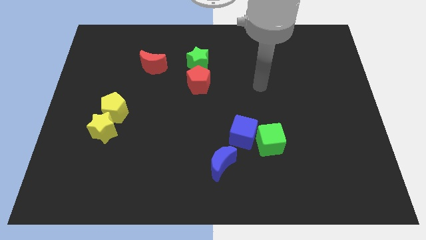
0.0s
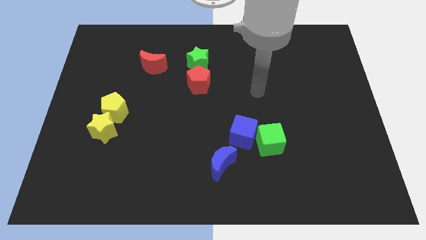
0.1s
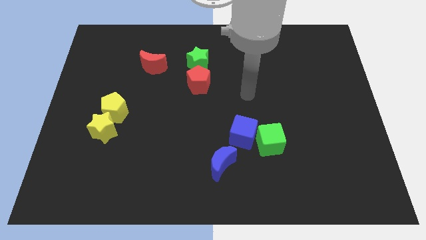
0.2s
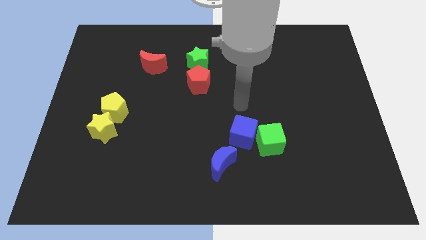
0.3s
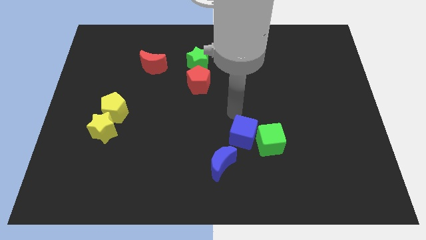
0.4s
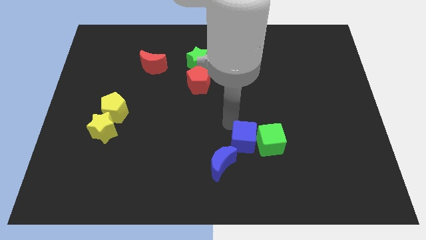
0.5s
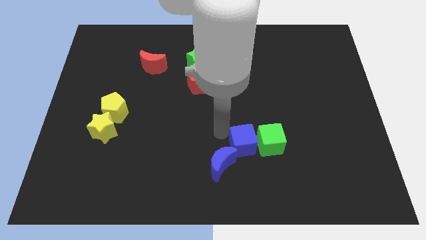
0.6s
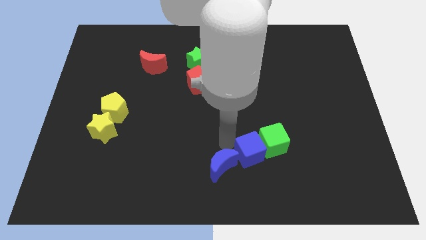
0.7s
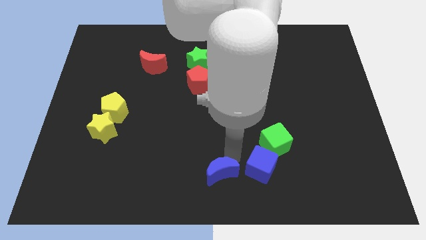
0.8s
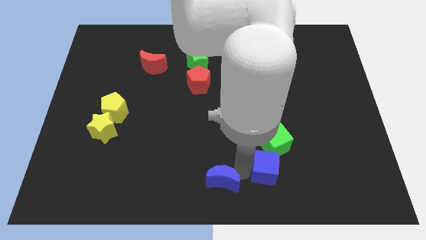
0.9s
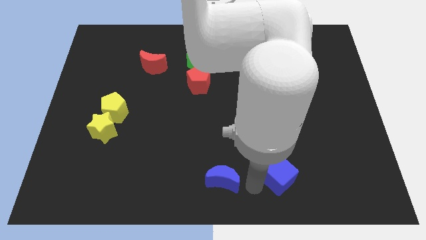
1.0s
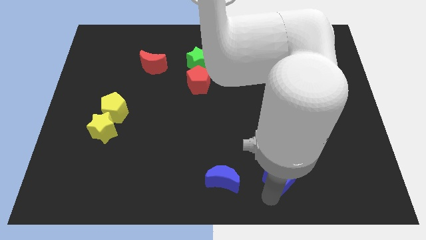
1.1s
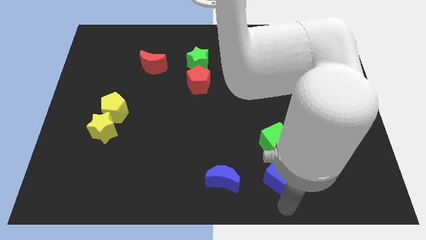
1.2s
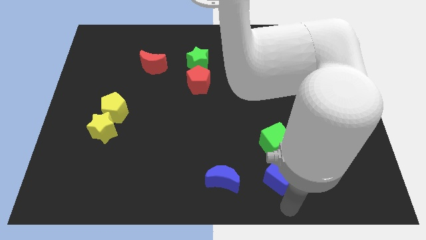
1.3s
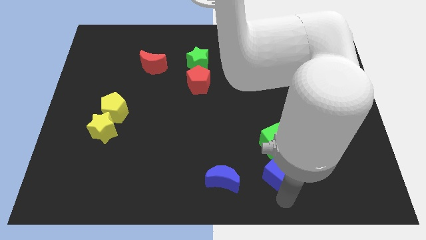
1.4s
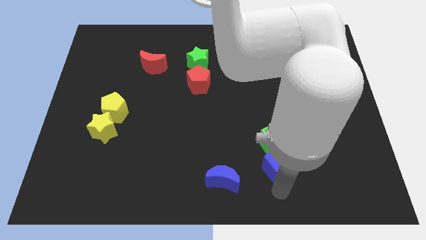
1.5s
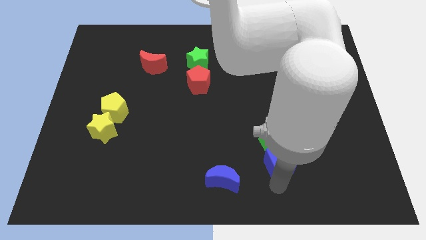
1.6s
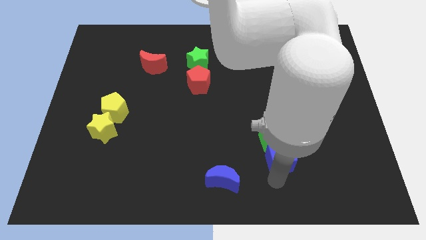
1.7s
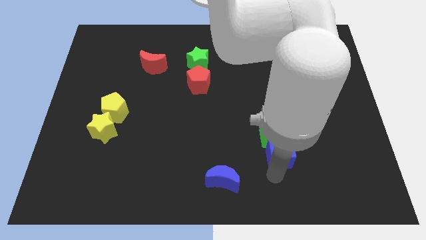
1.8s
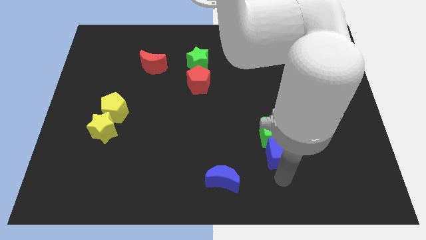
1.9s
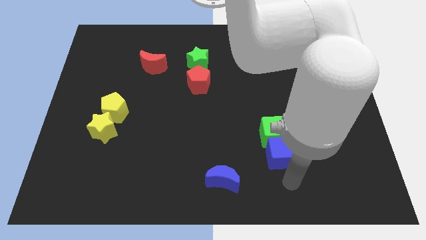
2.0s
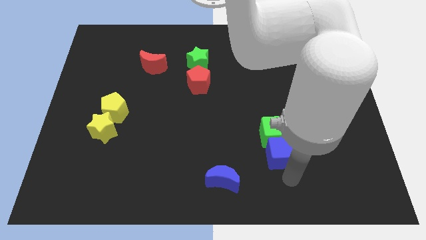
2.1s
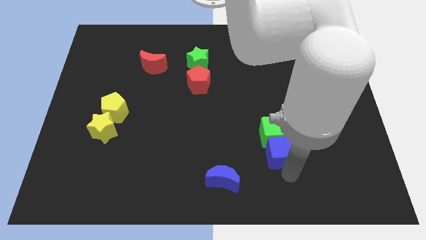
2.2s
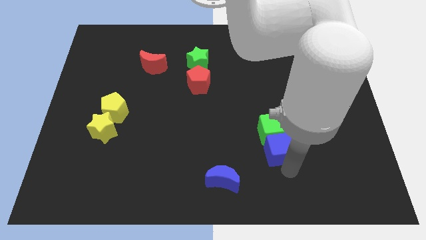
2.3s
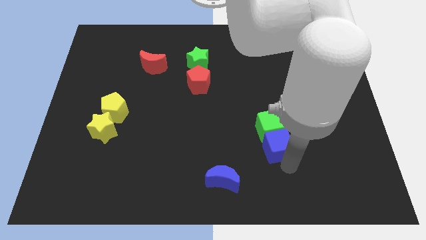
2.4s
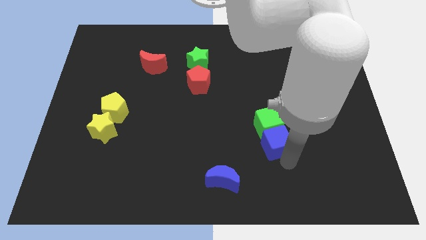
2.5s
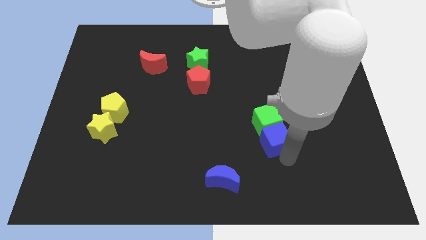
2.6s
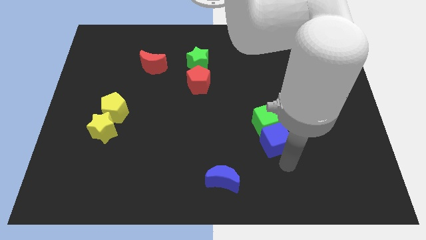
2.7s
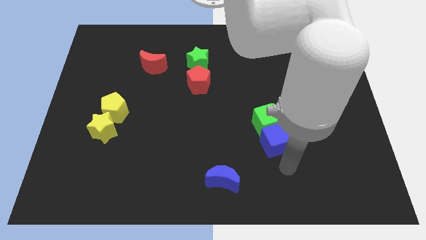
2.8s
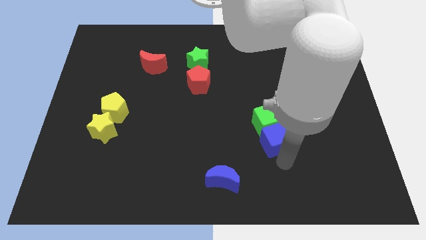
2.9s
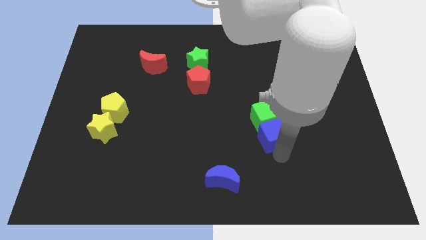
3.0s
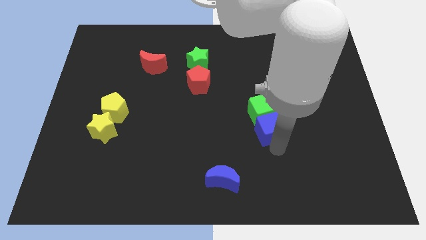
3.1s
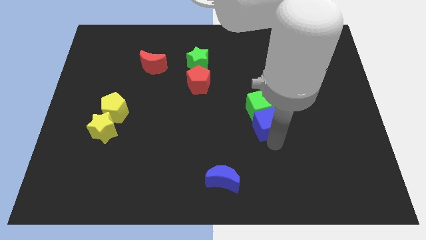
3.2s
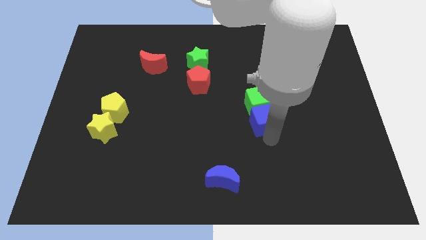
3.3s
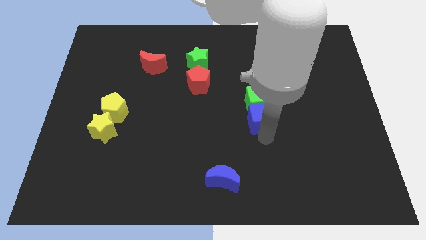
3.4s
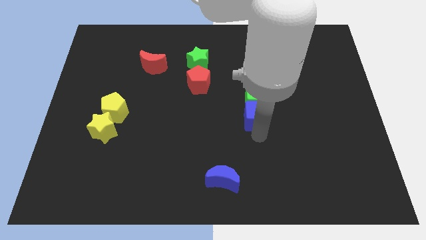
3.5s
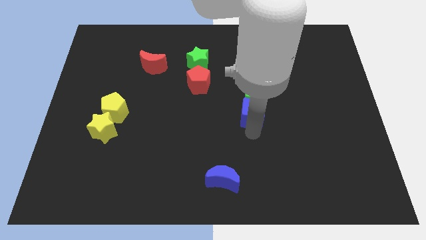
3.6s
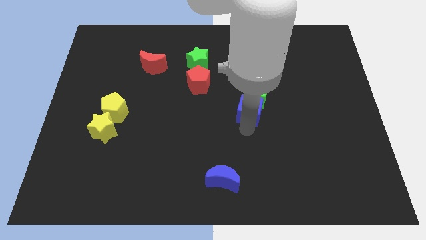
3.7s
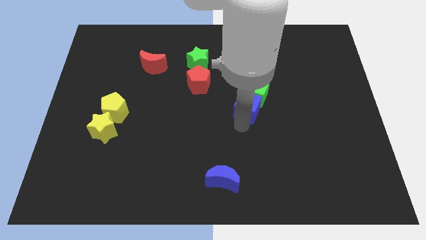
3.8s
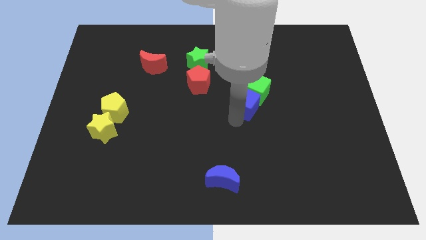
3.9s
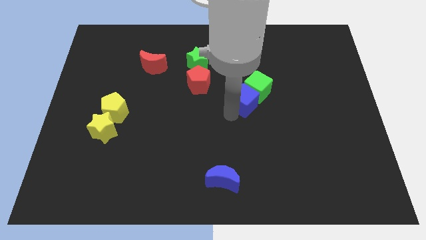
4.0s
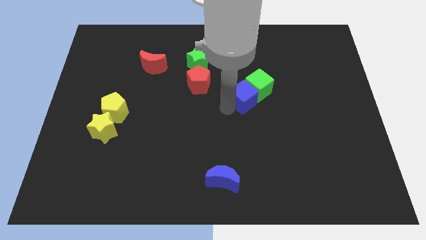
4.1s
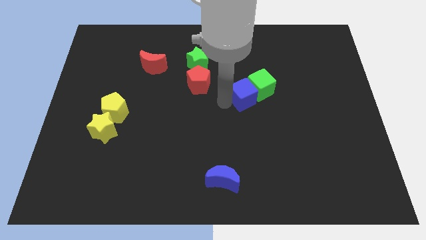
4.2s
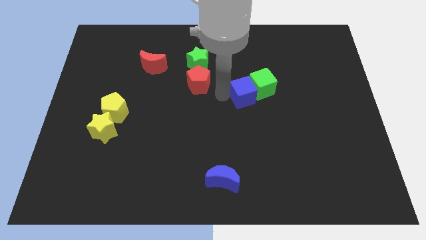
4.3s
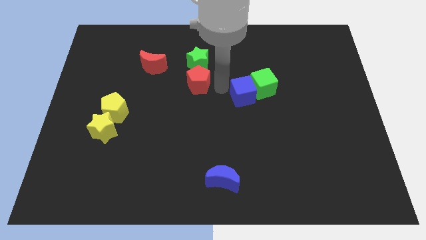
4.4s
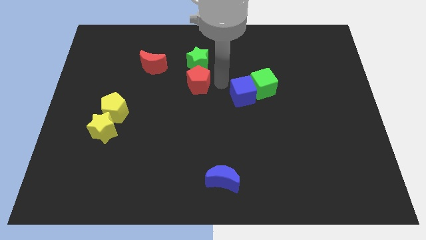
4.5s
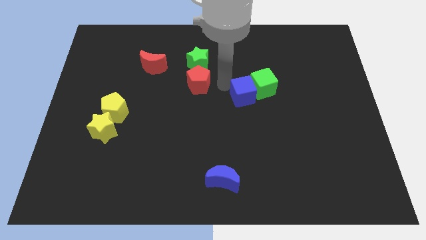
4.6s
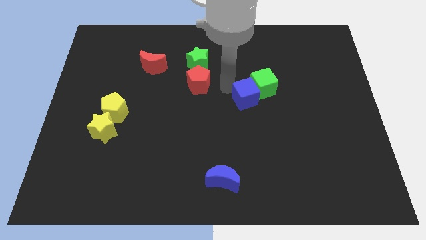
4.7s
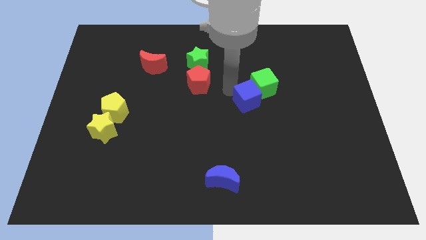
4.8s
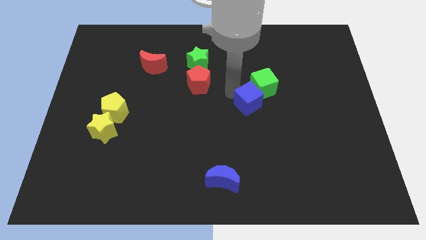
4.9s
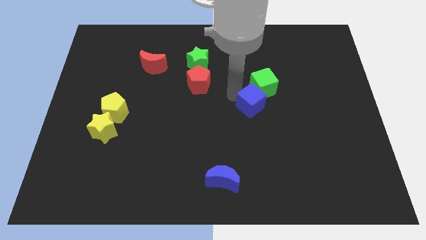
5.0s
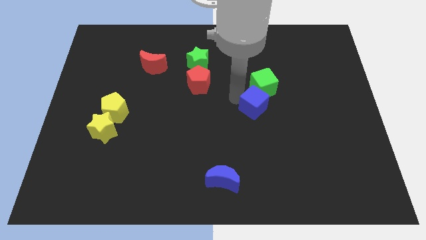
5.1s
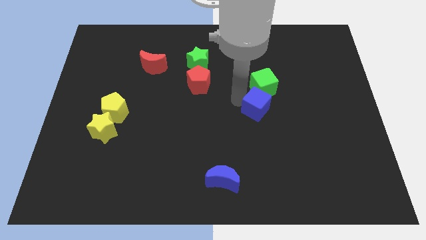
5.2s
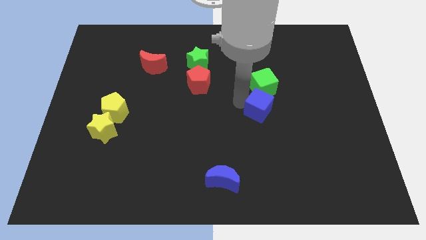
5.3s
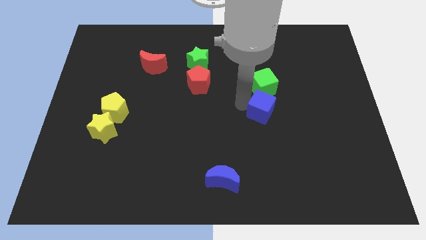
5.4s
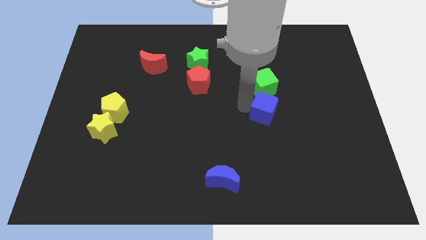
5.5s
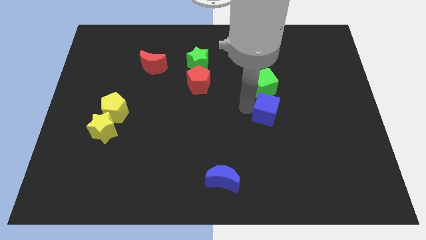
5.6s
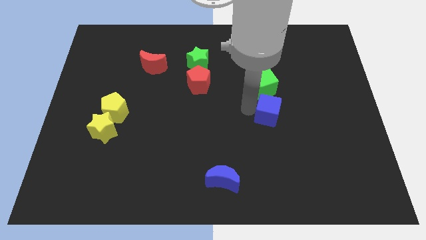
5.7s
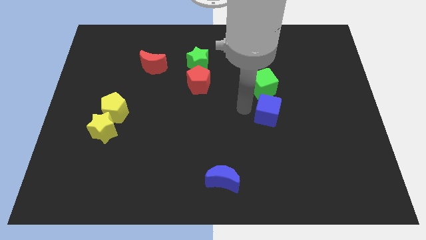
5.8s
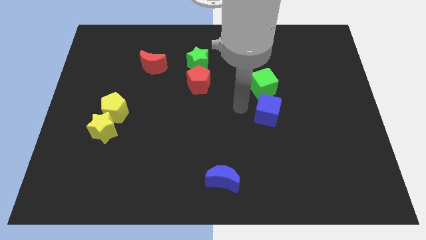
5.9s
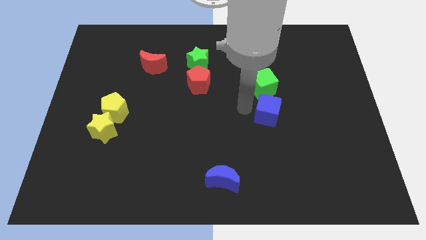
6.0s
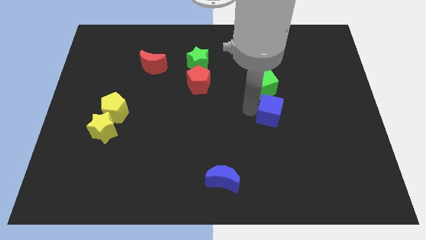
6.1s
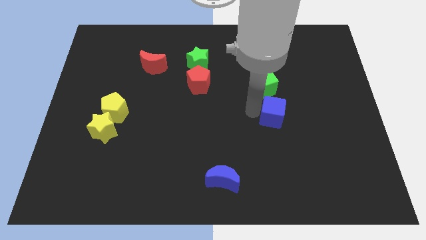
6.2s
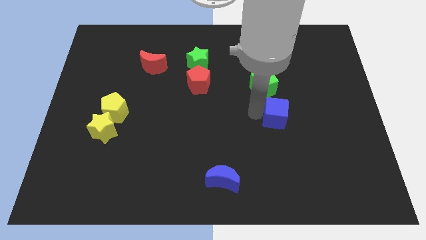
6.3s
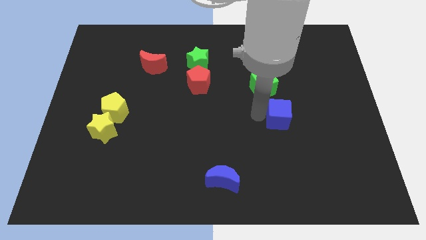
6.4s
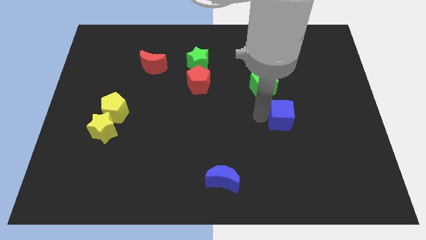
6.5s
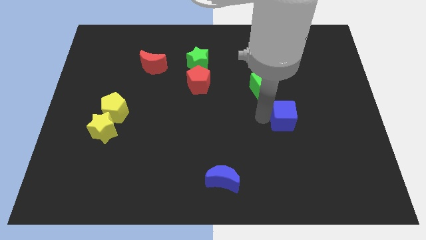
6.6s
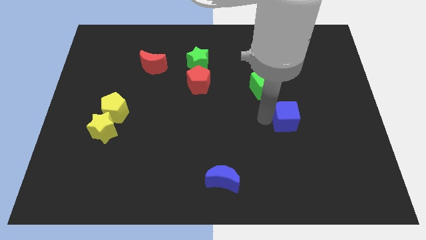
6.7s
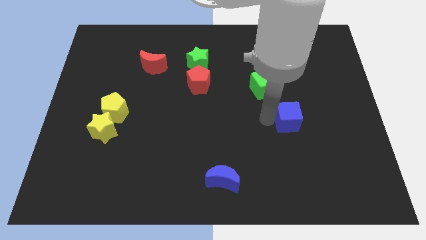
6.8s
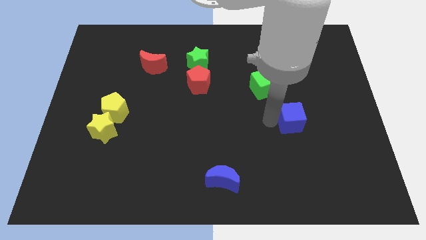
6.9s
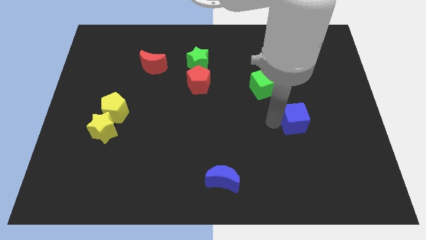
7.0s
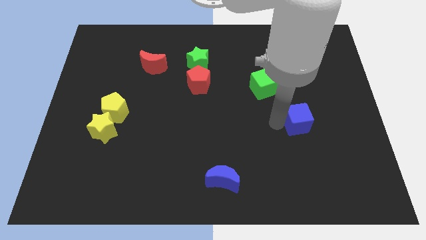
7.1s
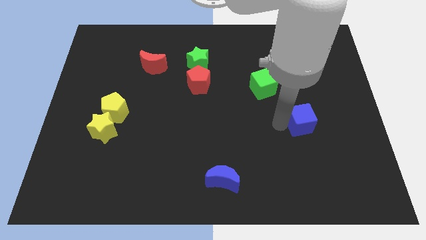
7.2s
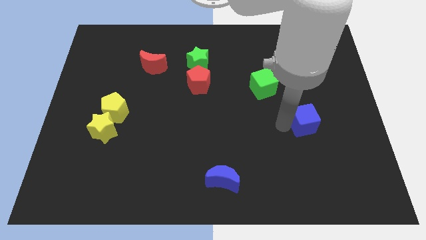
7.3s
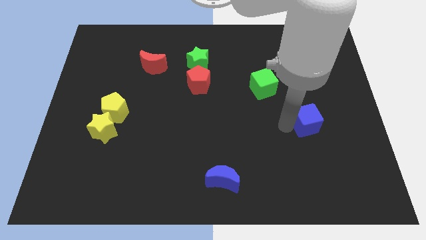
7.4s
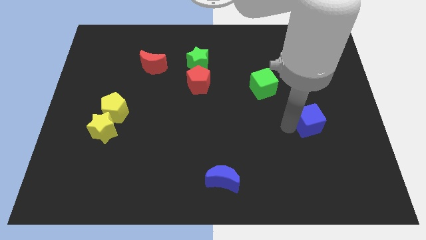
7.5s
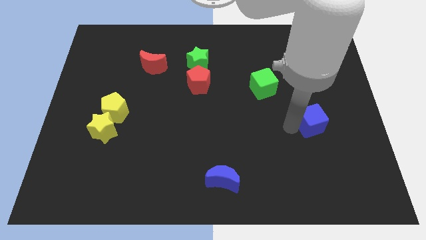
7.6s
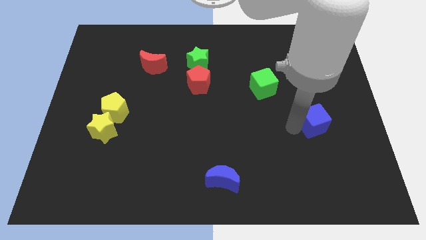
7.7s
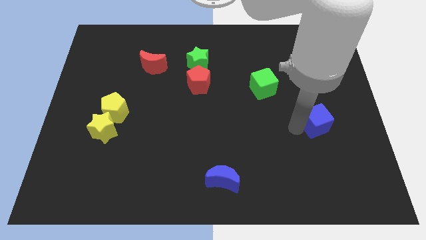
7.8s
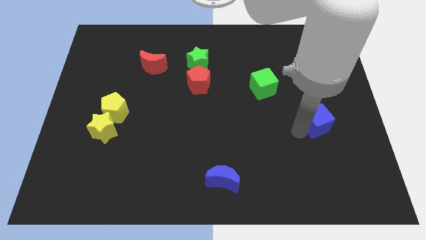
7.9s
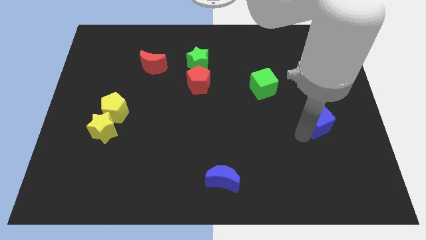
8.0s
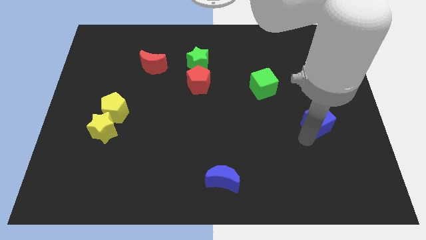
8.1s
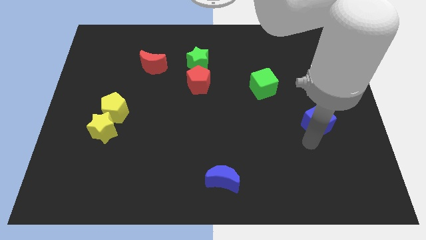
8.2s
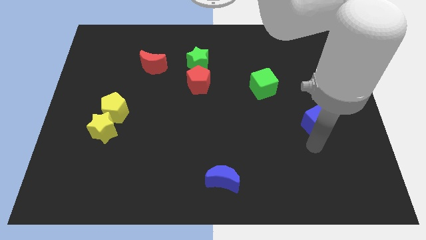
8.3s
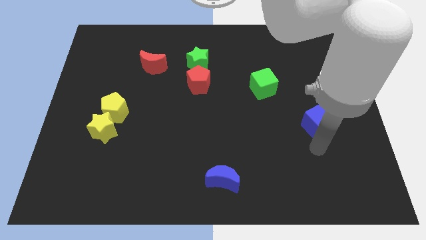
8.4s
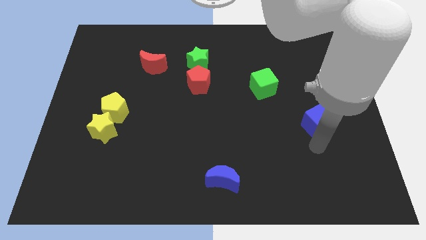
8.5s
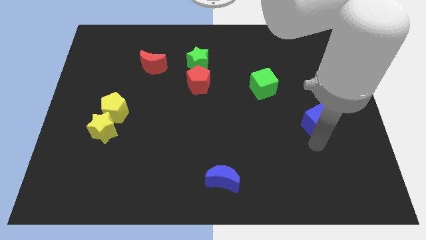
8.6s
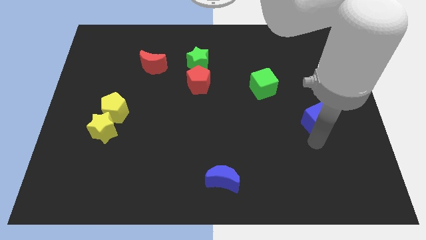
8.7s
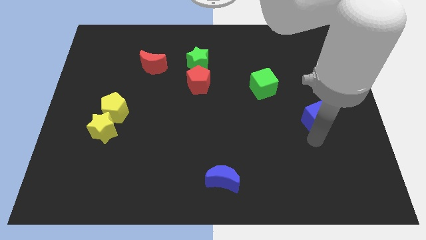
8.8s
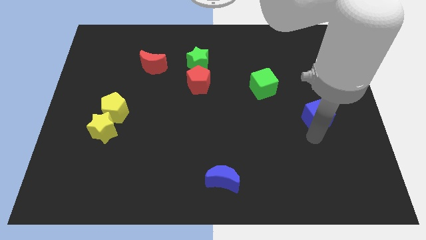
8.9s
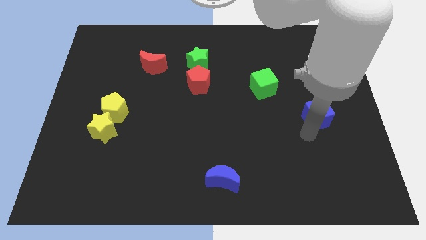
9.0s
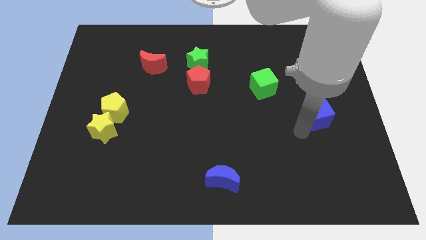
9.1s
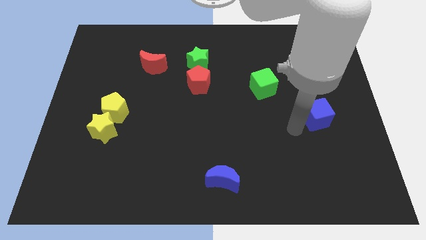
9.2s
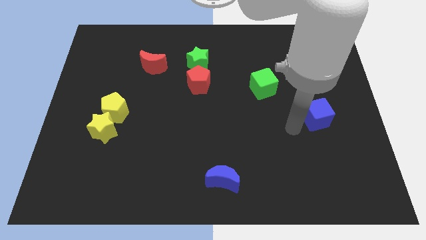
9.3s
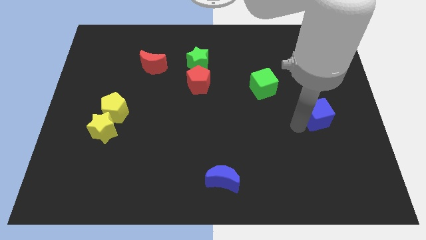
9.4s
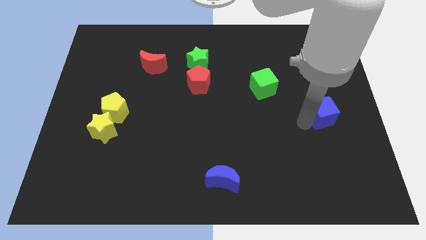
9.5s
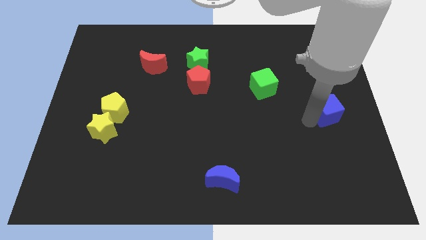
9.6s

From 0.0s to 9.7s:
move the blue cube to the right side of the board
